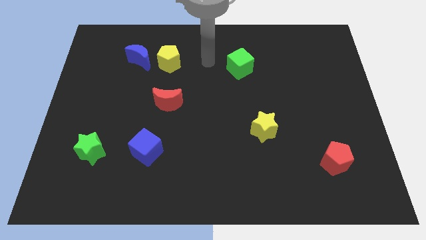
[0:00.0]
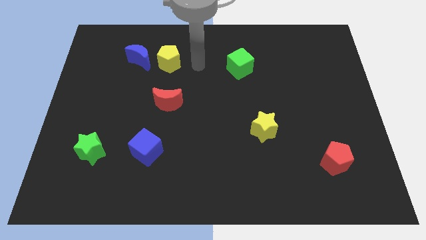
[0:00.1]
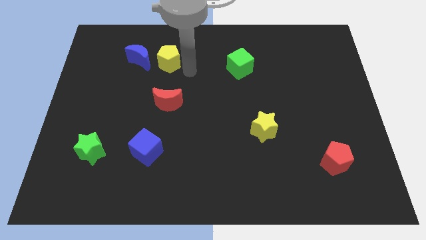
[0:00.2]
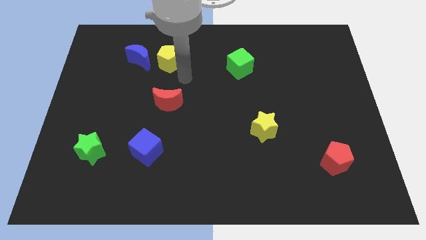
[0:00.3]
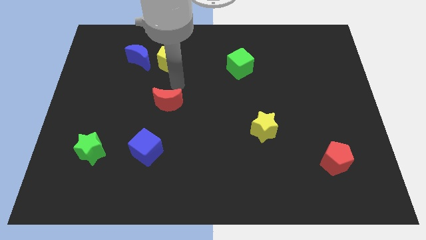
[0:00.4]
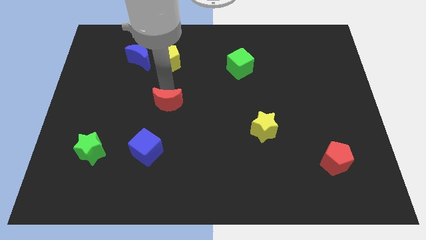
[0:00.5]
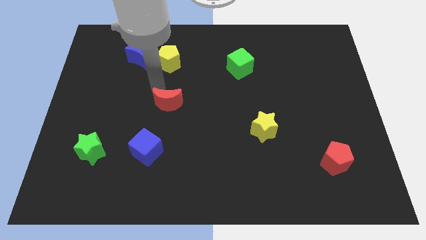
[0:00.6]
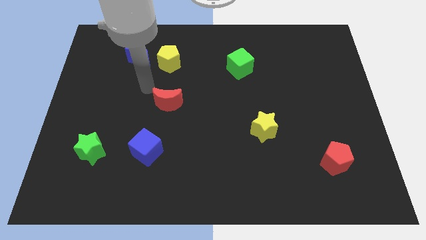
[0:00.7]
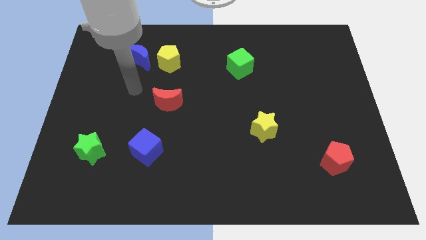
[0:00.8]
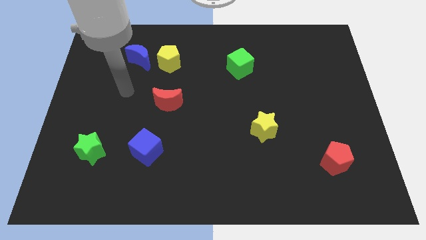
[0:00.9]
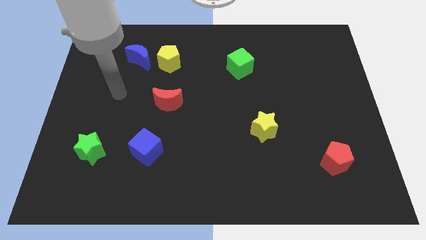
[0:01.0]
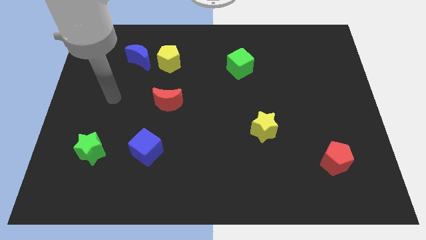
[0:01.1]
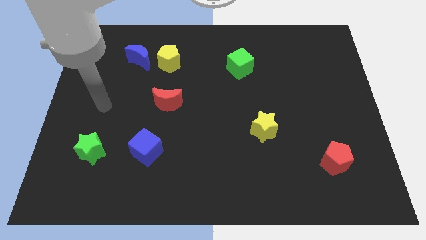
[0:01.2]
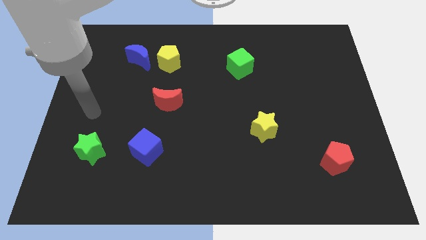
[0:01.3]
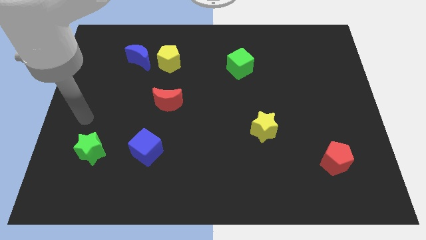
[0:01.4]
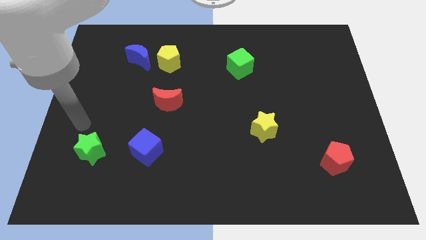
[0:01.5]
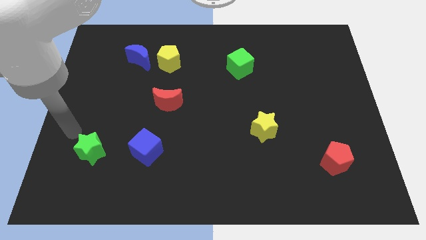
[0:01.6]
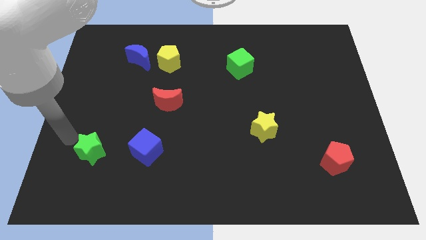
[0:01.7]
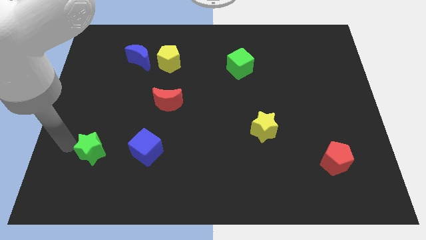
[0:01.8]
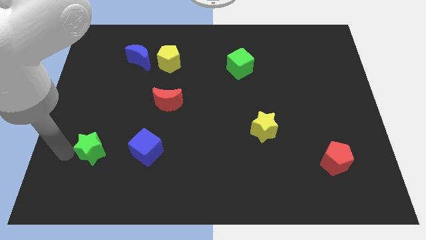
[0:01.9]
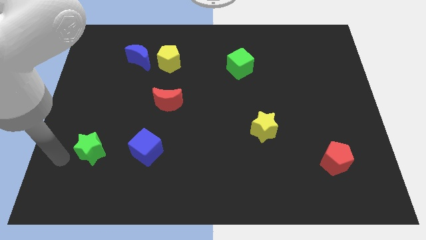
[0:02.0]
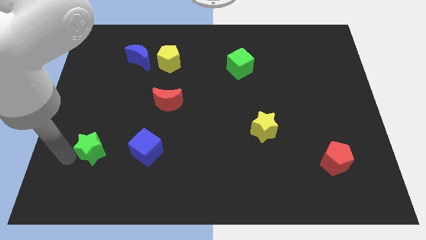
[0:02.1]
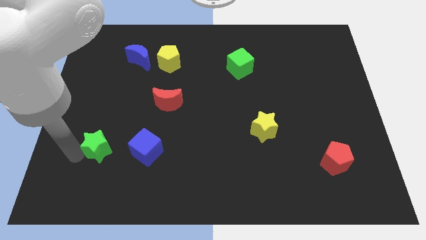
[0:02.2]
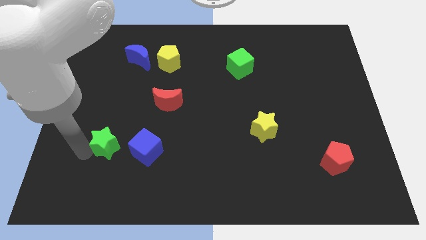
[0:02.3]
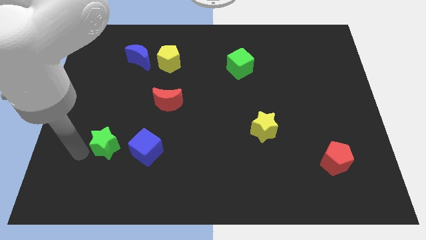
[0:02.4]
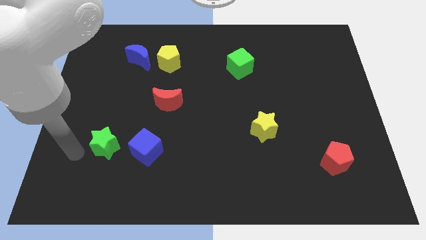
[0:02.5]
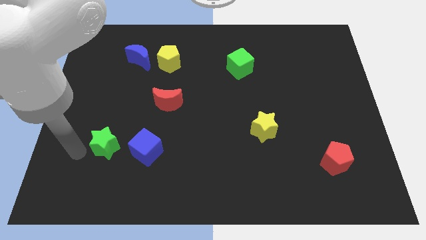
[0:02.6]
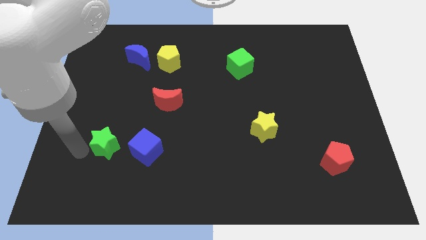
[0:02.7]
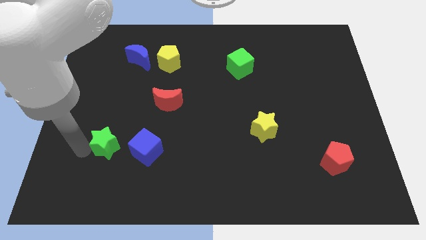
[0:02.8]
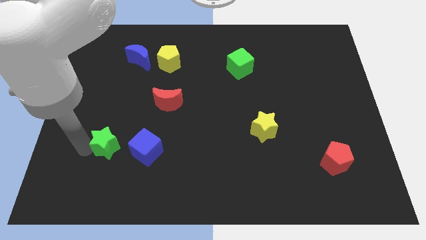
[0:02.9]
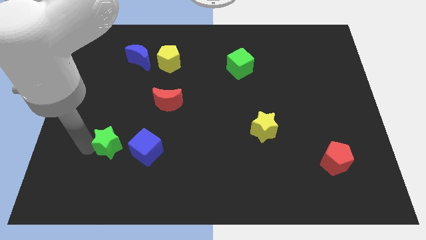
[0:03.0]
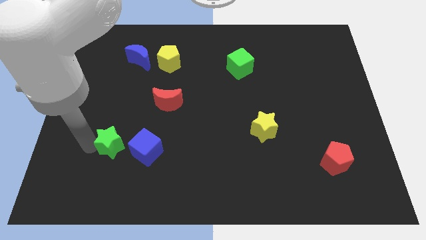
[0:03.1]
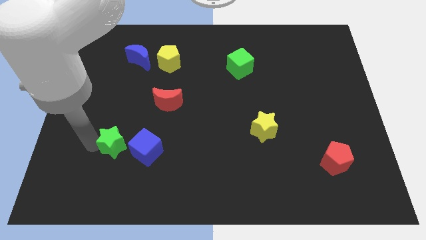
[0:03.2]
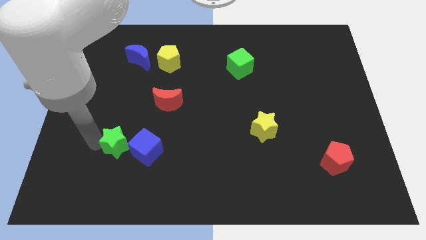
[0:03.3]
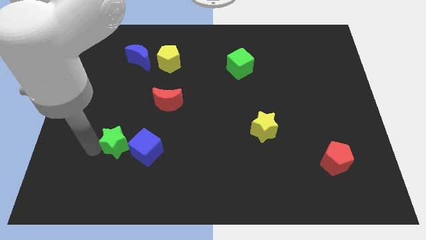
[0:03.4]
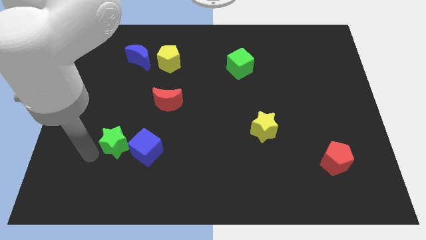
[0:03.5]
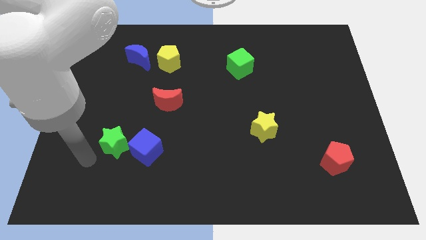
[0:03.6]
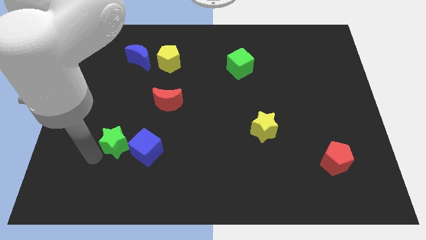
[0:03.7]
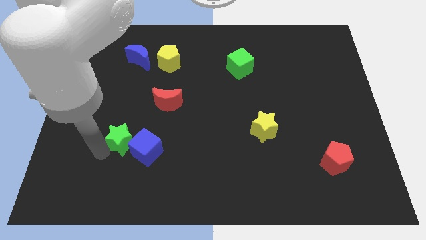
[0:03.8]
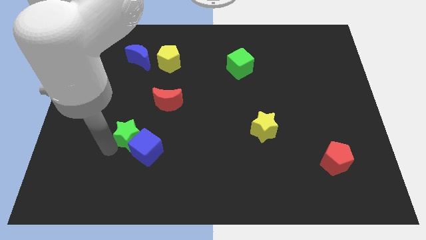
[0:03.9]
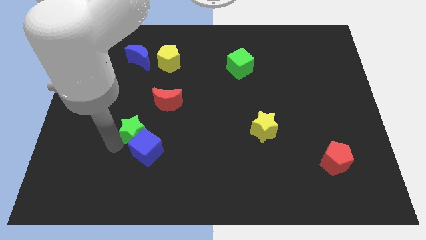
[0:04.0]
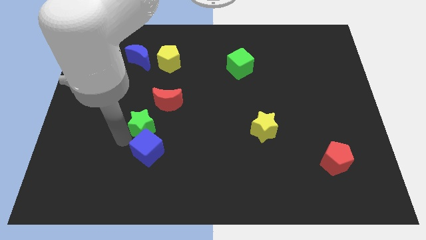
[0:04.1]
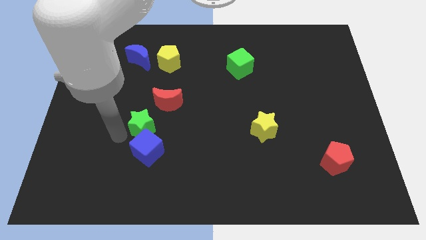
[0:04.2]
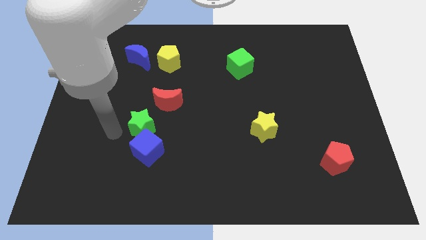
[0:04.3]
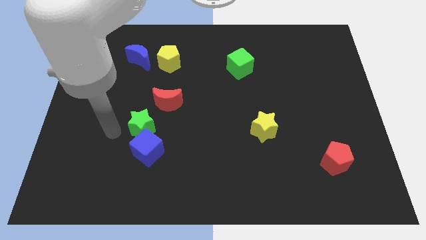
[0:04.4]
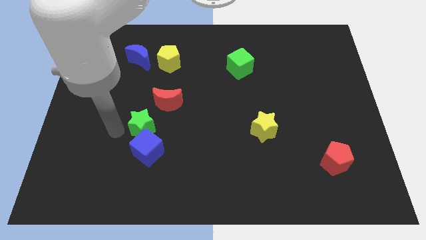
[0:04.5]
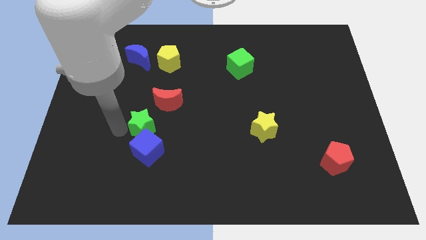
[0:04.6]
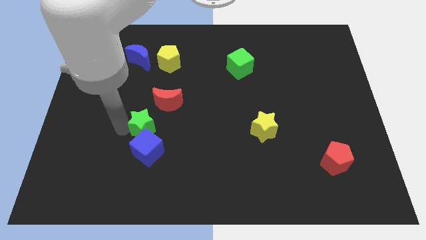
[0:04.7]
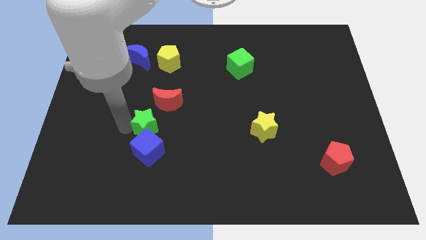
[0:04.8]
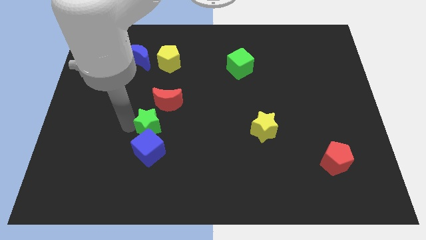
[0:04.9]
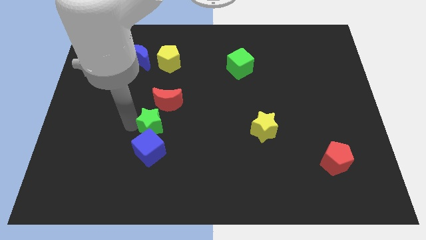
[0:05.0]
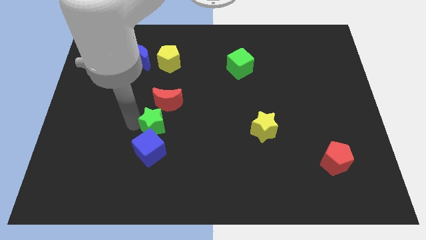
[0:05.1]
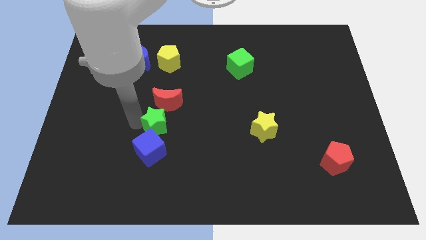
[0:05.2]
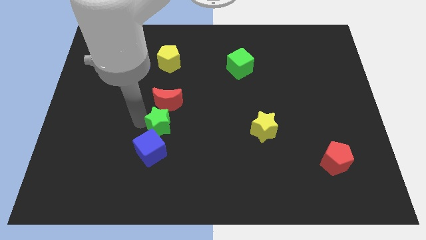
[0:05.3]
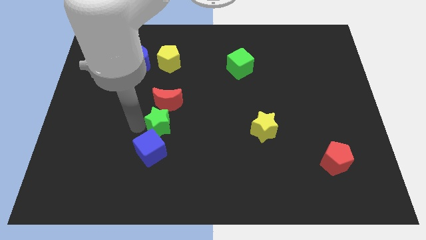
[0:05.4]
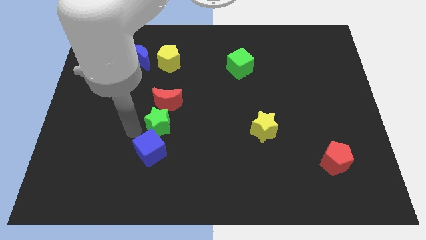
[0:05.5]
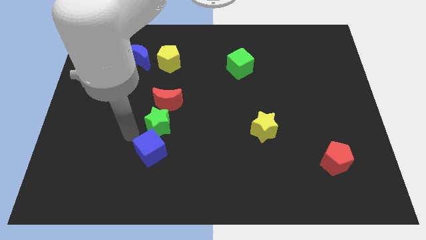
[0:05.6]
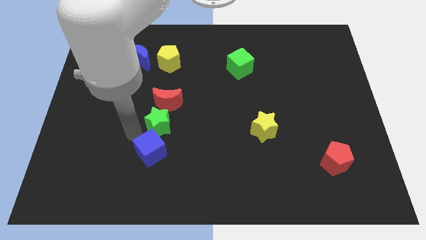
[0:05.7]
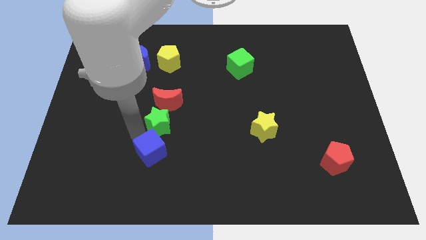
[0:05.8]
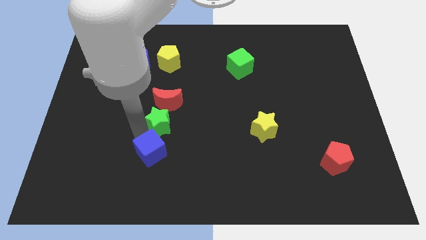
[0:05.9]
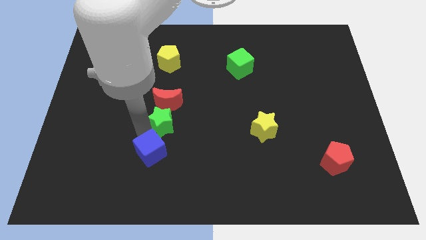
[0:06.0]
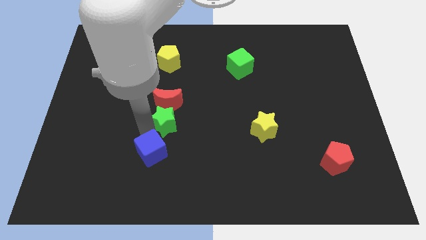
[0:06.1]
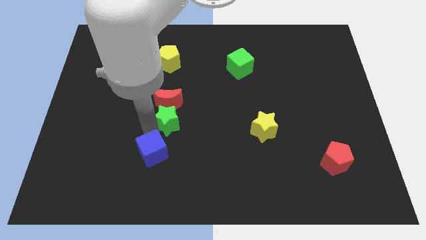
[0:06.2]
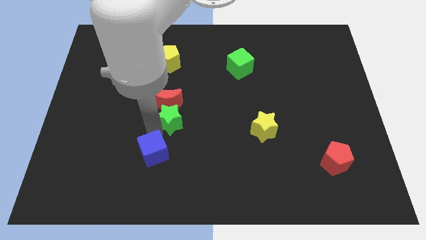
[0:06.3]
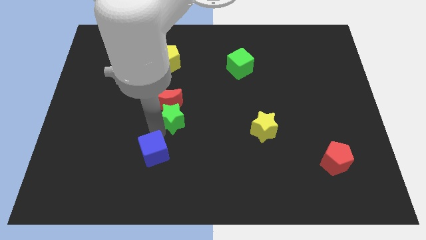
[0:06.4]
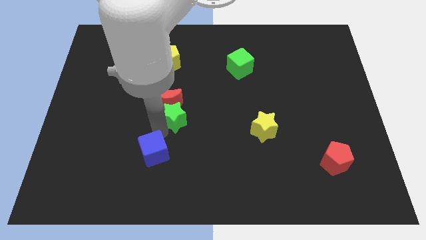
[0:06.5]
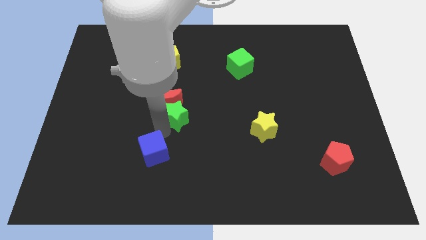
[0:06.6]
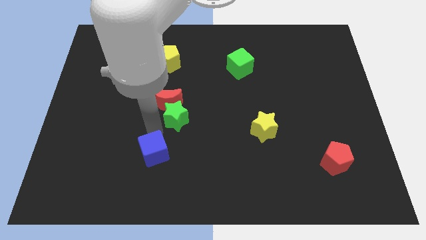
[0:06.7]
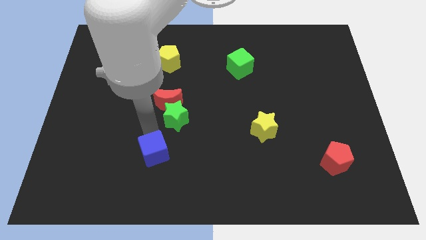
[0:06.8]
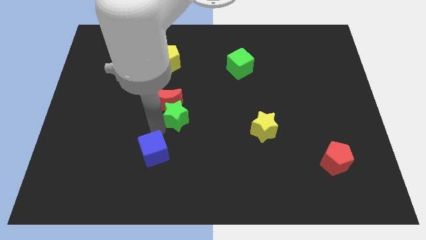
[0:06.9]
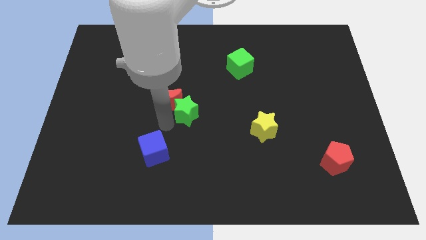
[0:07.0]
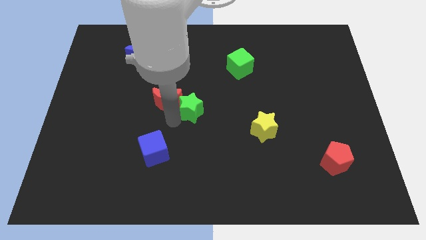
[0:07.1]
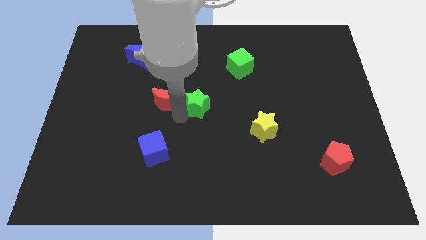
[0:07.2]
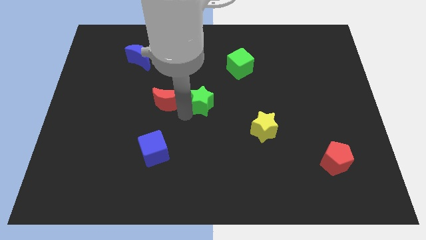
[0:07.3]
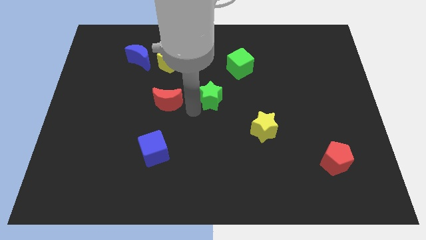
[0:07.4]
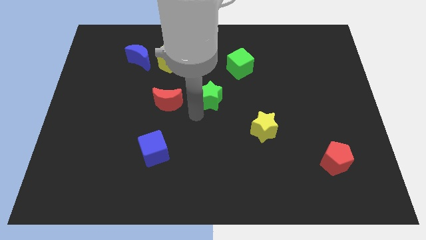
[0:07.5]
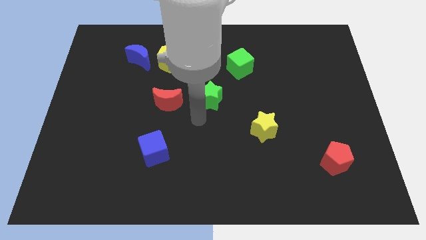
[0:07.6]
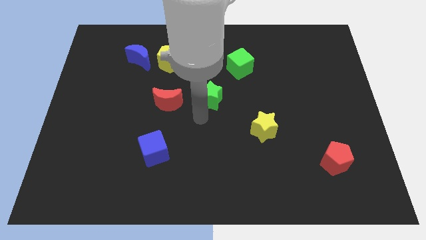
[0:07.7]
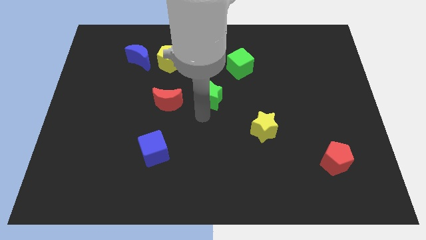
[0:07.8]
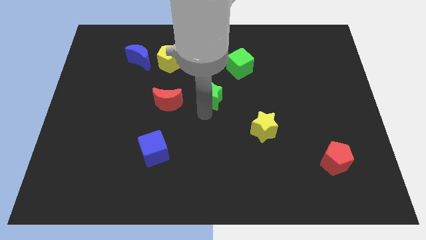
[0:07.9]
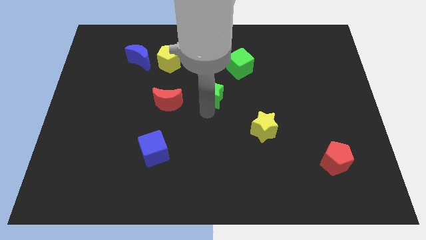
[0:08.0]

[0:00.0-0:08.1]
slide the green star to the bottom left of the green cube
